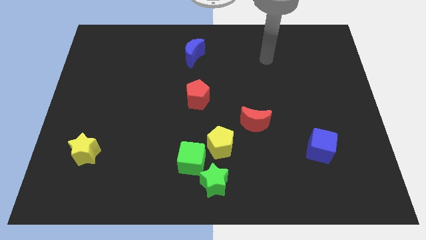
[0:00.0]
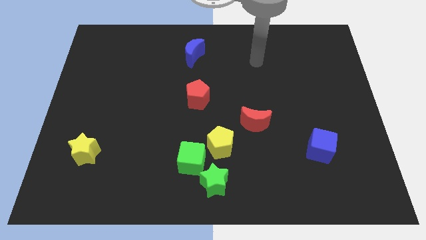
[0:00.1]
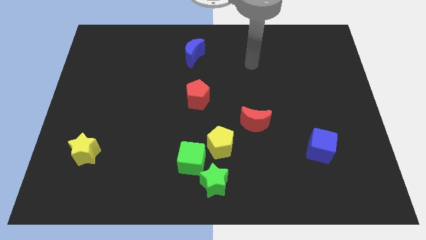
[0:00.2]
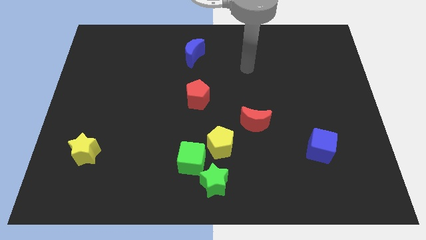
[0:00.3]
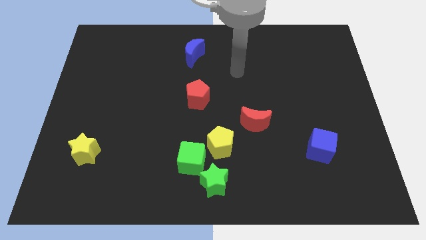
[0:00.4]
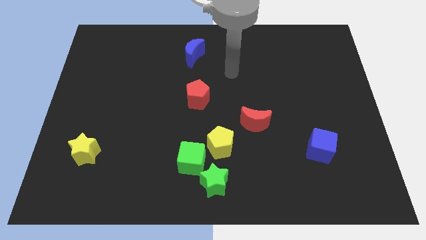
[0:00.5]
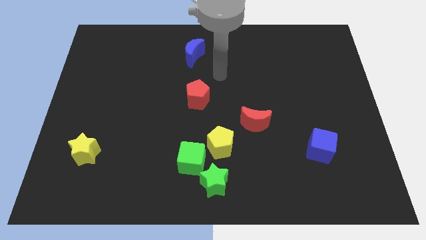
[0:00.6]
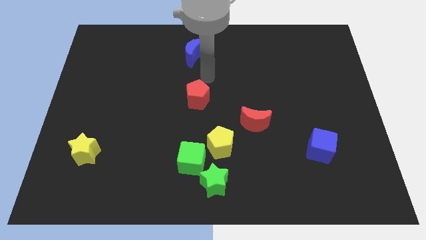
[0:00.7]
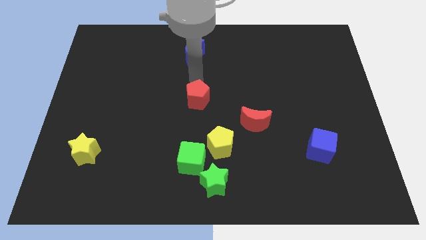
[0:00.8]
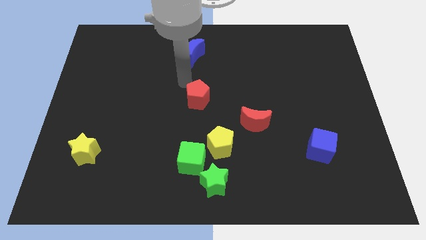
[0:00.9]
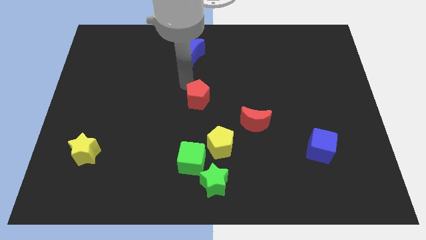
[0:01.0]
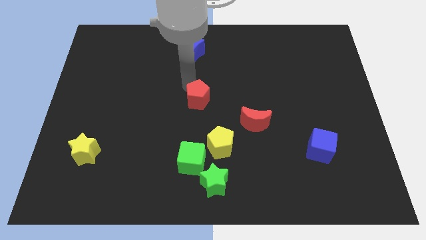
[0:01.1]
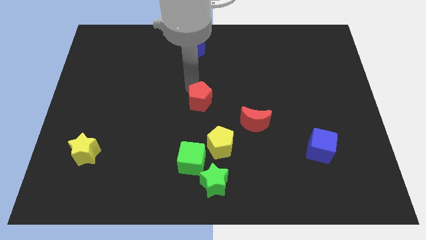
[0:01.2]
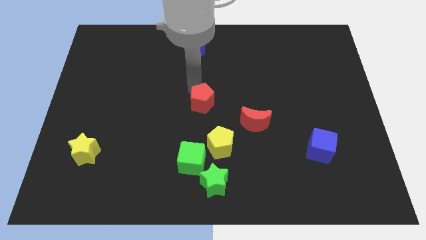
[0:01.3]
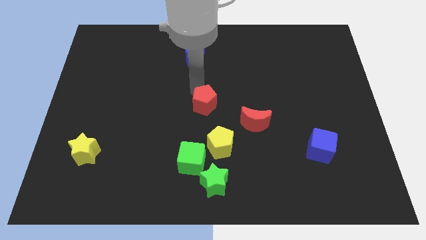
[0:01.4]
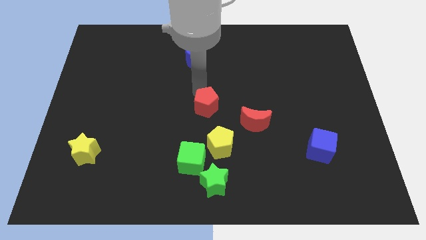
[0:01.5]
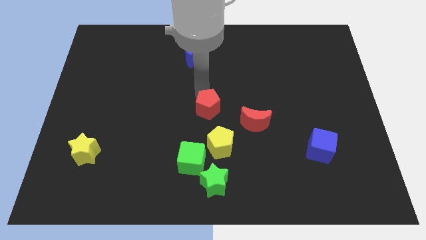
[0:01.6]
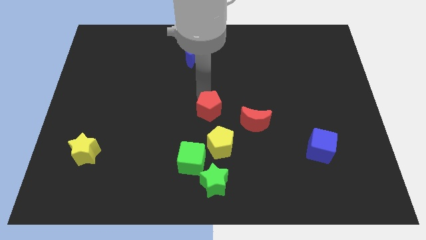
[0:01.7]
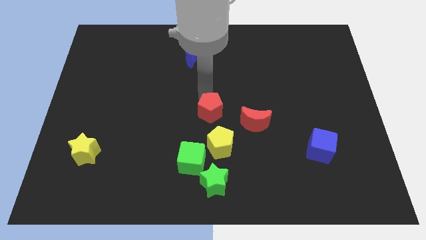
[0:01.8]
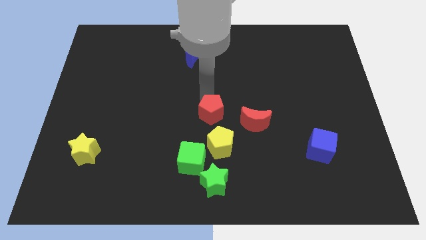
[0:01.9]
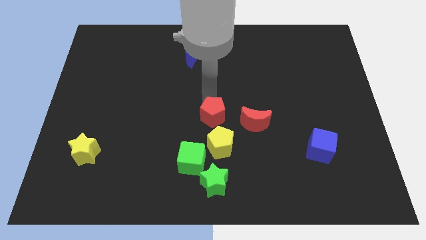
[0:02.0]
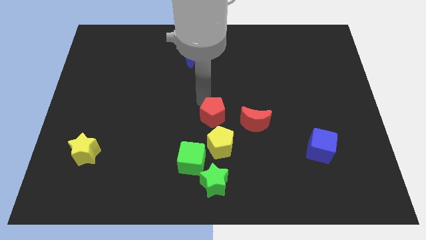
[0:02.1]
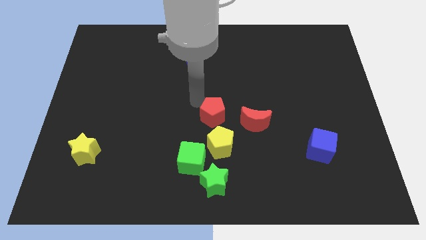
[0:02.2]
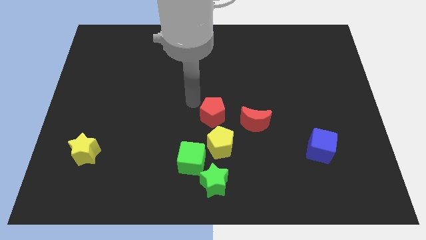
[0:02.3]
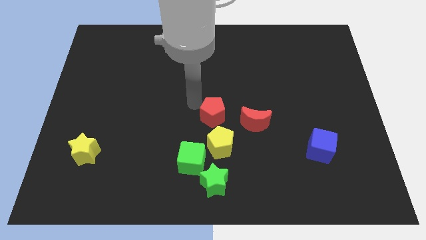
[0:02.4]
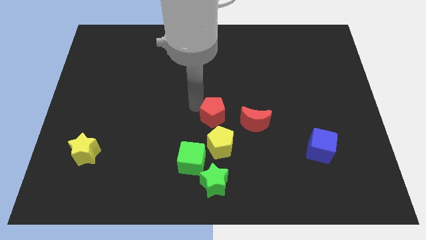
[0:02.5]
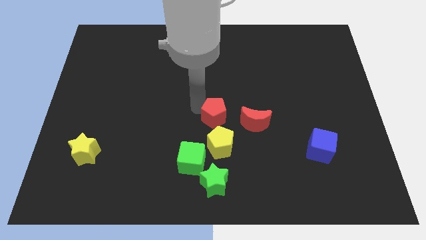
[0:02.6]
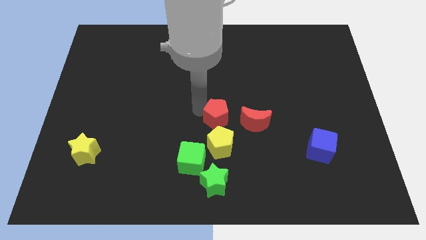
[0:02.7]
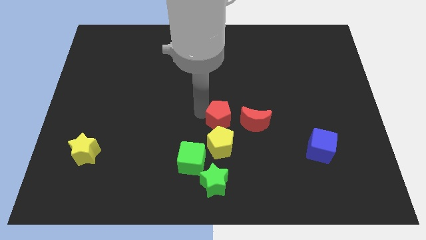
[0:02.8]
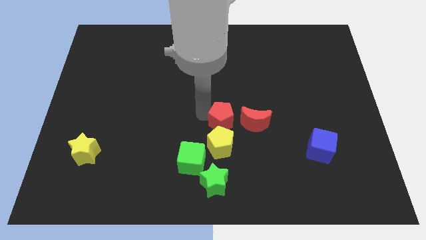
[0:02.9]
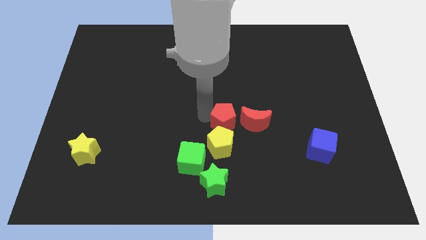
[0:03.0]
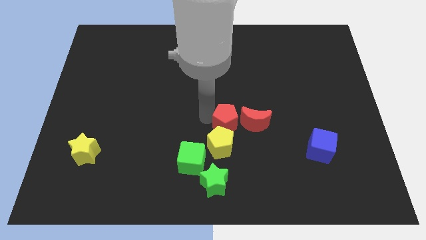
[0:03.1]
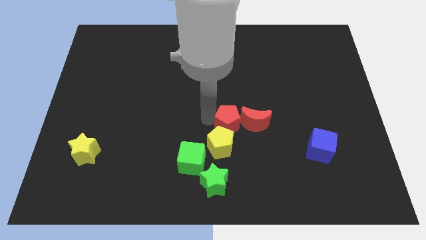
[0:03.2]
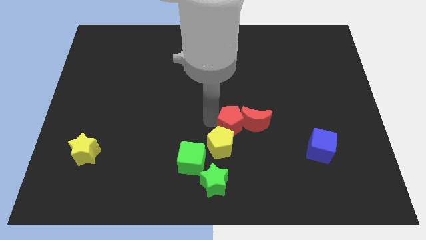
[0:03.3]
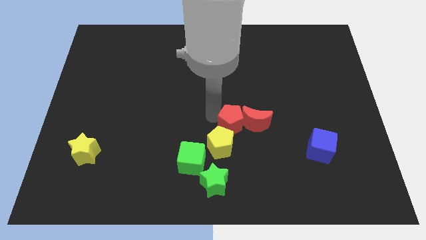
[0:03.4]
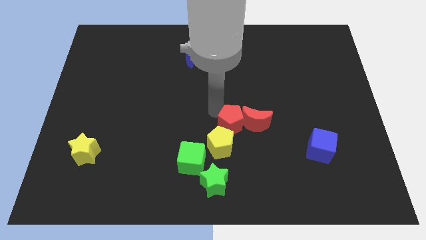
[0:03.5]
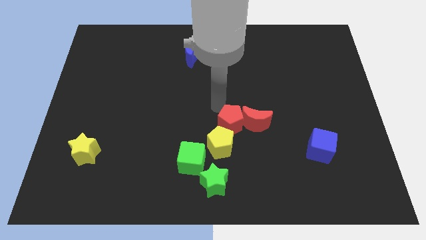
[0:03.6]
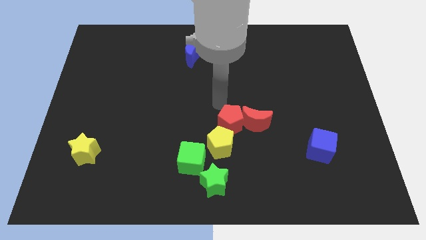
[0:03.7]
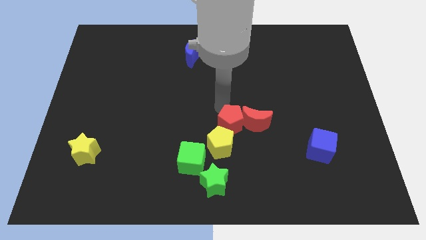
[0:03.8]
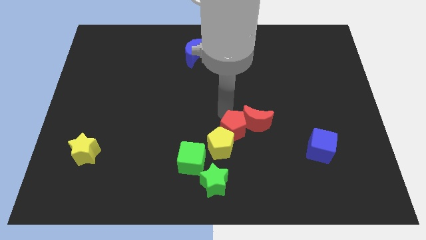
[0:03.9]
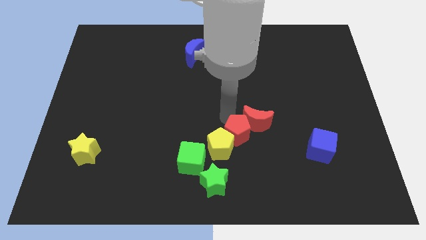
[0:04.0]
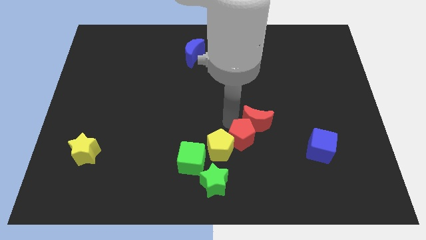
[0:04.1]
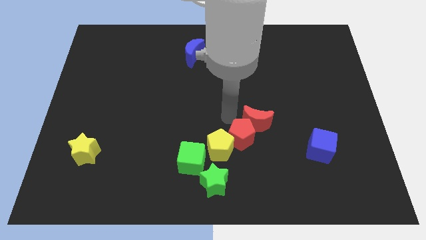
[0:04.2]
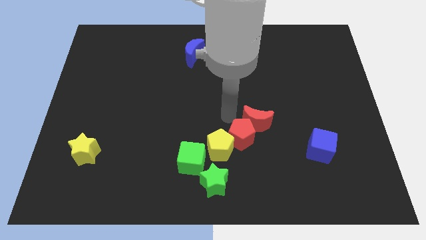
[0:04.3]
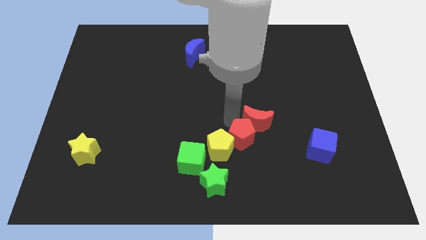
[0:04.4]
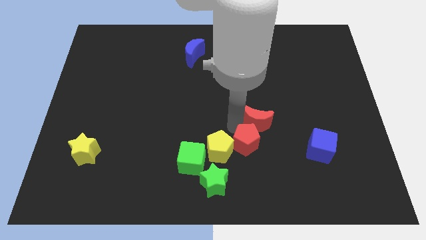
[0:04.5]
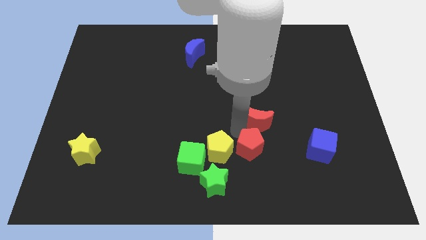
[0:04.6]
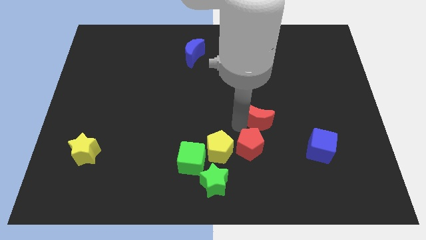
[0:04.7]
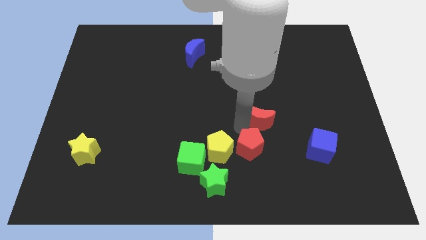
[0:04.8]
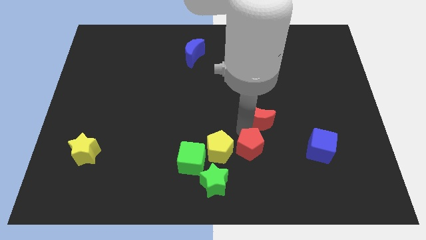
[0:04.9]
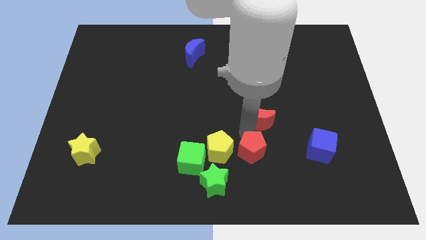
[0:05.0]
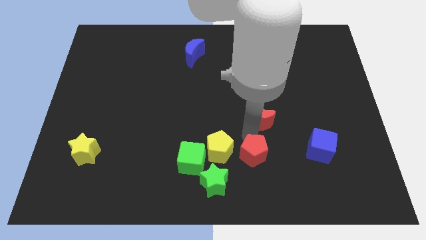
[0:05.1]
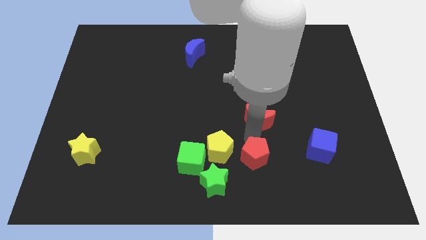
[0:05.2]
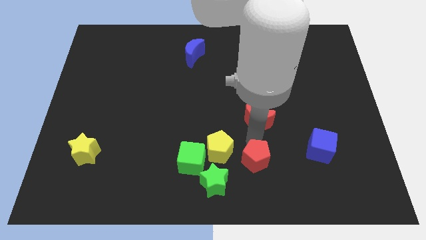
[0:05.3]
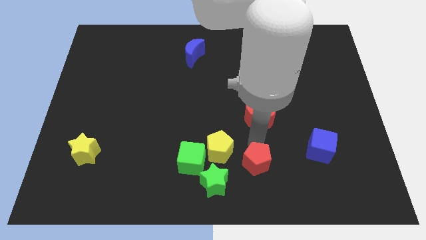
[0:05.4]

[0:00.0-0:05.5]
push the red pentagon right of the green star

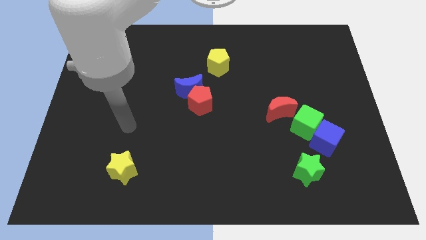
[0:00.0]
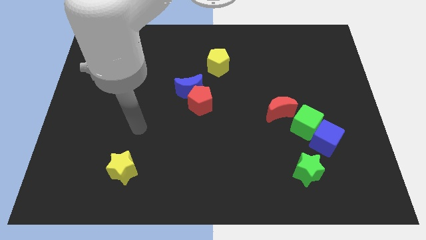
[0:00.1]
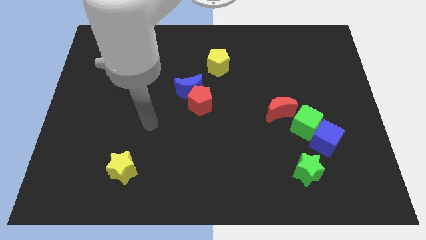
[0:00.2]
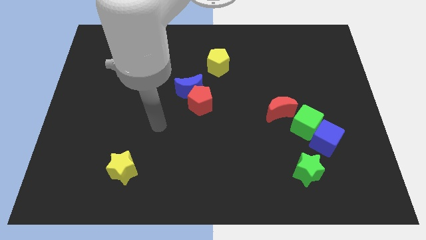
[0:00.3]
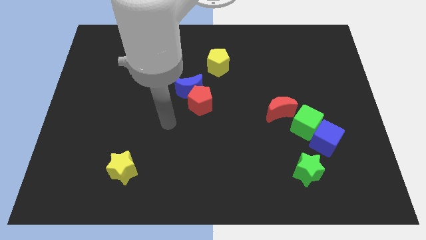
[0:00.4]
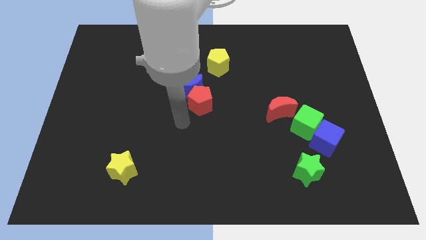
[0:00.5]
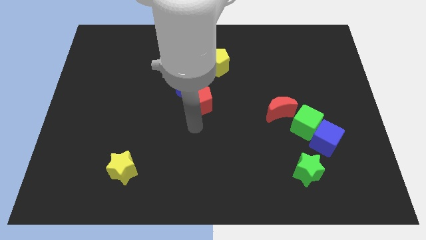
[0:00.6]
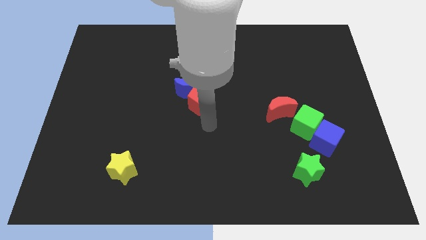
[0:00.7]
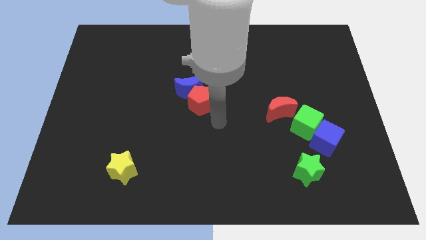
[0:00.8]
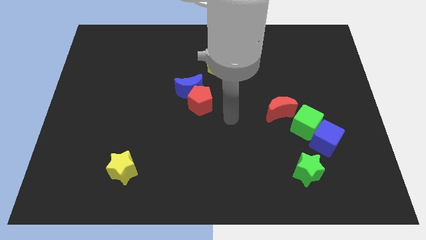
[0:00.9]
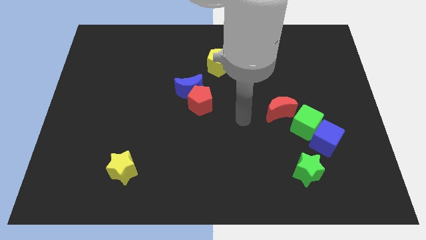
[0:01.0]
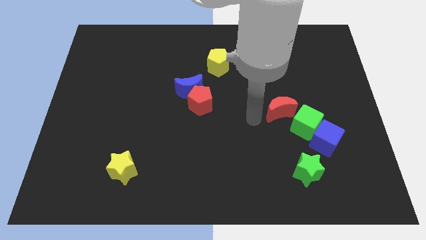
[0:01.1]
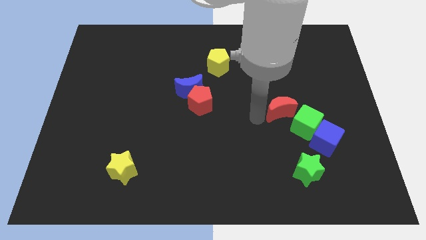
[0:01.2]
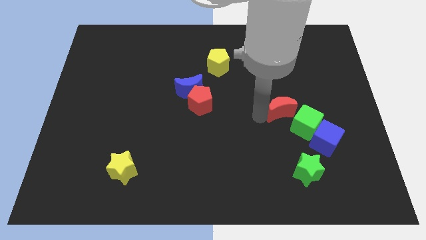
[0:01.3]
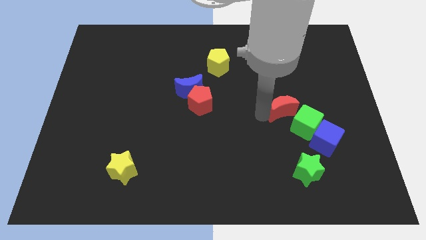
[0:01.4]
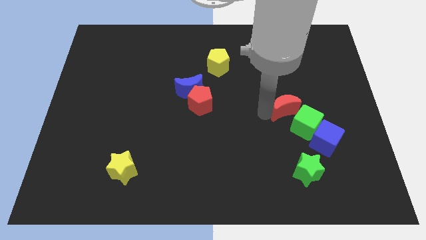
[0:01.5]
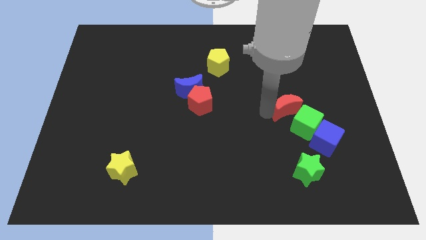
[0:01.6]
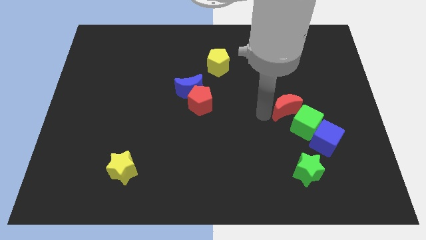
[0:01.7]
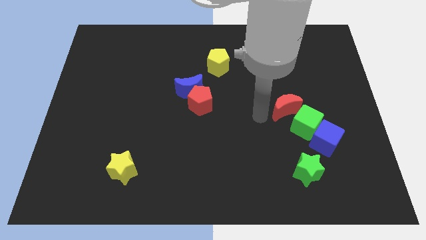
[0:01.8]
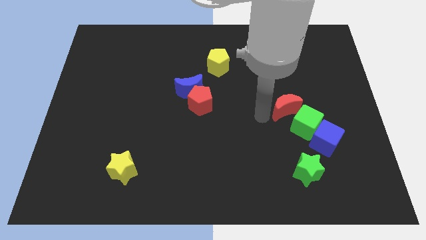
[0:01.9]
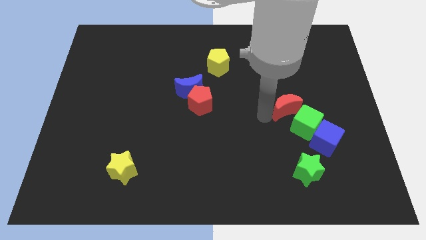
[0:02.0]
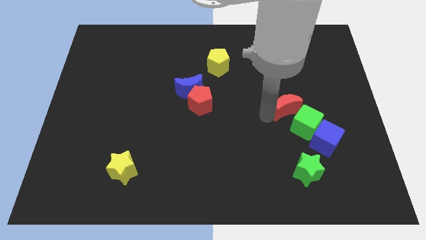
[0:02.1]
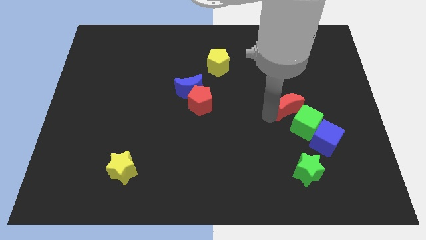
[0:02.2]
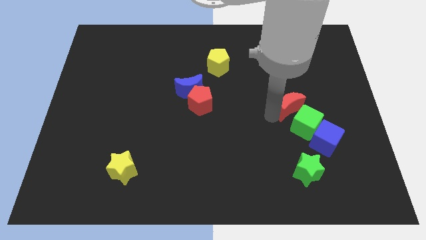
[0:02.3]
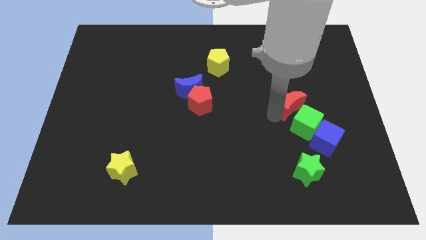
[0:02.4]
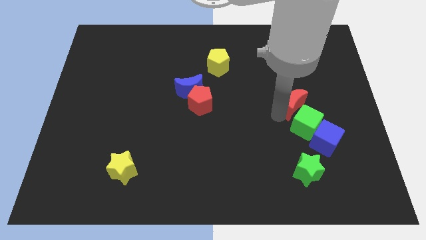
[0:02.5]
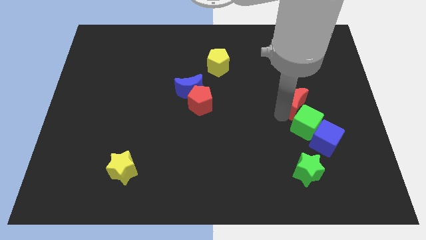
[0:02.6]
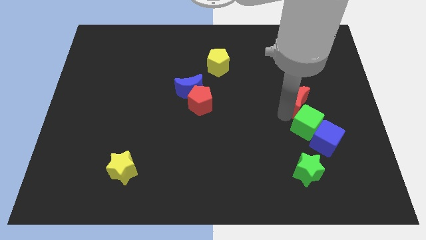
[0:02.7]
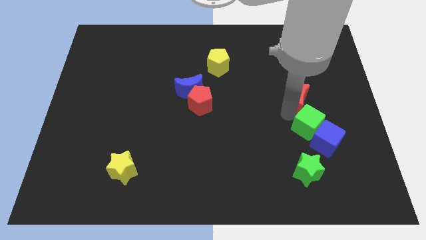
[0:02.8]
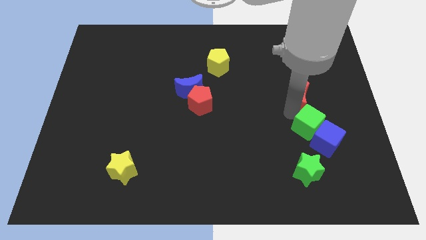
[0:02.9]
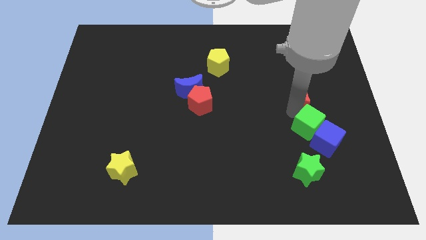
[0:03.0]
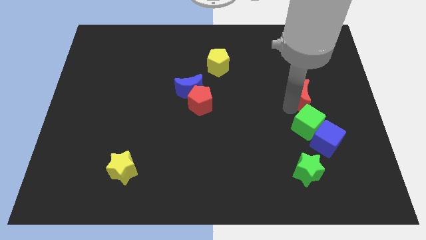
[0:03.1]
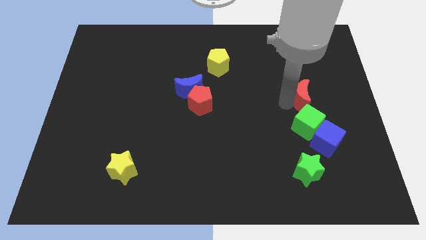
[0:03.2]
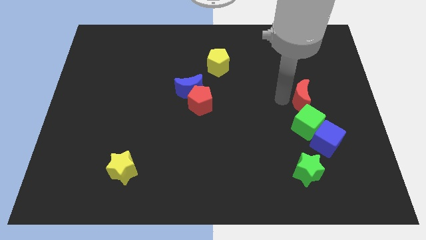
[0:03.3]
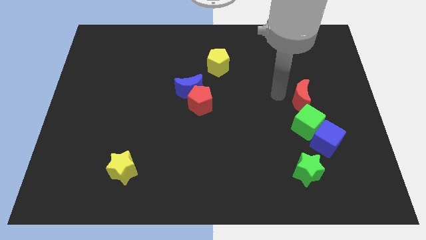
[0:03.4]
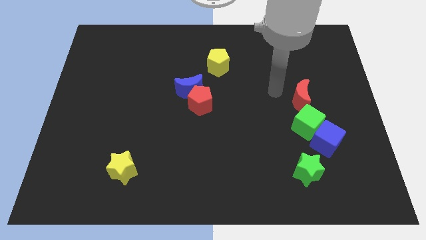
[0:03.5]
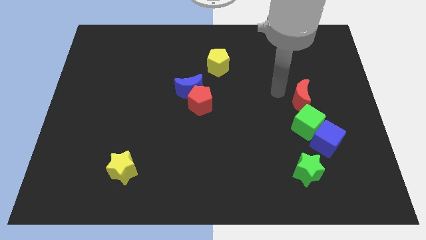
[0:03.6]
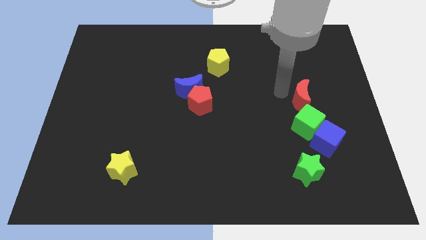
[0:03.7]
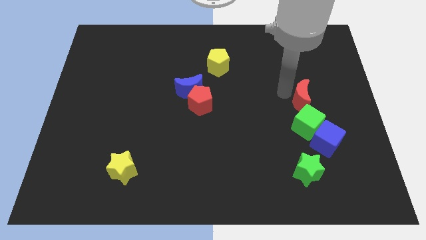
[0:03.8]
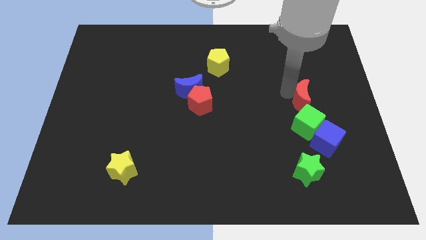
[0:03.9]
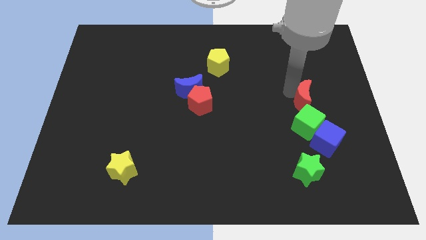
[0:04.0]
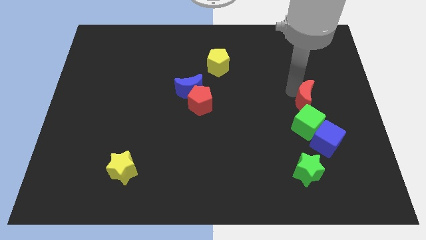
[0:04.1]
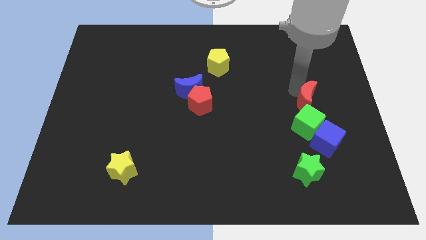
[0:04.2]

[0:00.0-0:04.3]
put the red moon to the top right of the green cube
